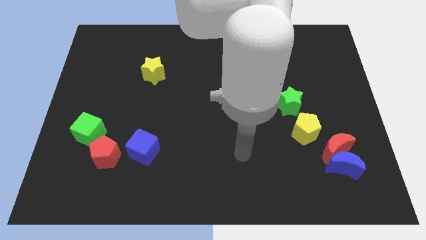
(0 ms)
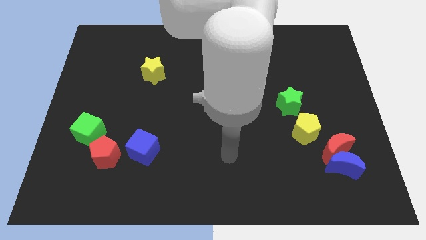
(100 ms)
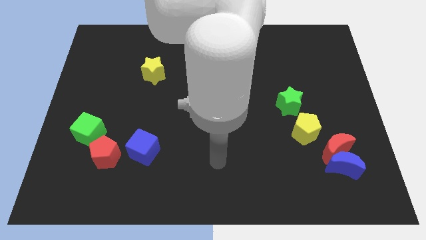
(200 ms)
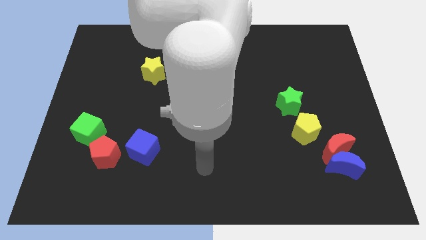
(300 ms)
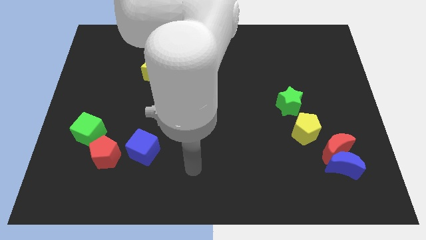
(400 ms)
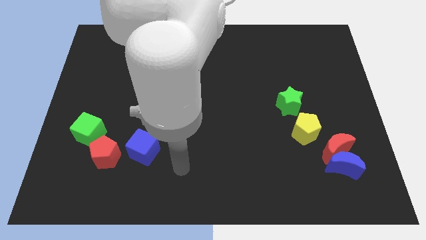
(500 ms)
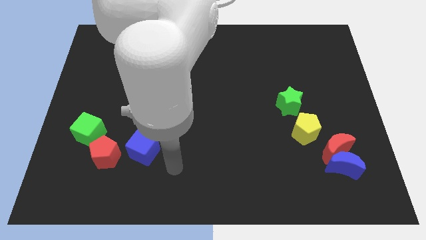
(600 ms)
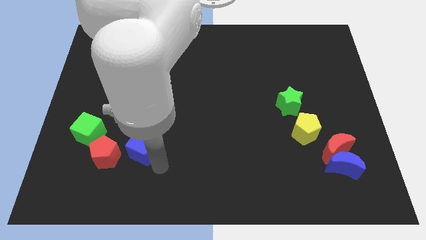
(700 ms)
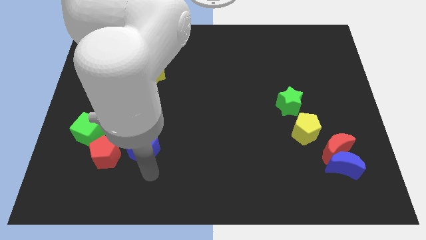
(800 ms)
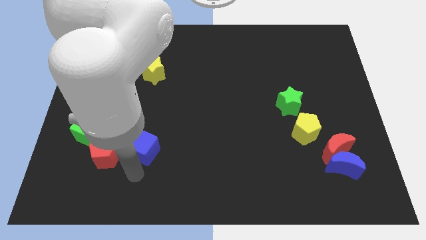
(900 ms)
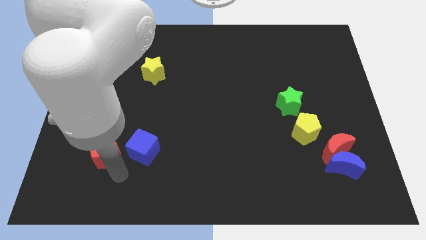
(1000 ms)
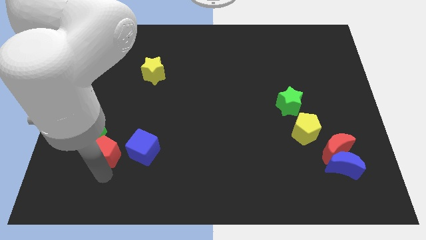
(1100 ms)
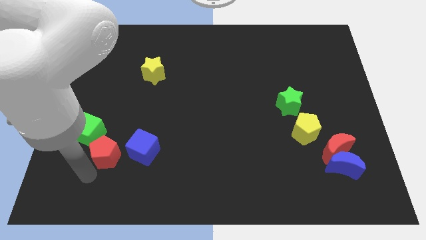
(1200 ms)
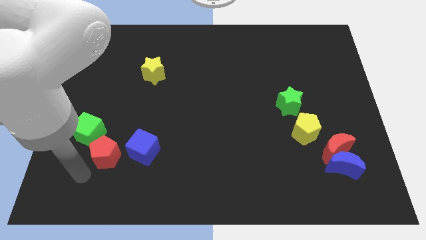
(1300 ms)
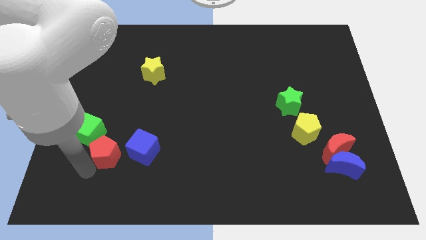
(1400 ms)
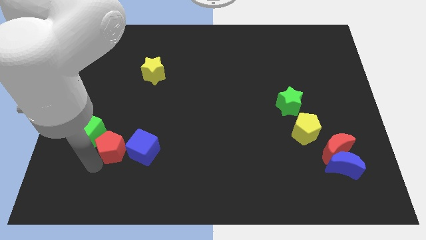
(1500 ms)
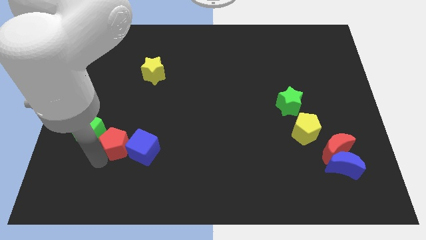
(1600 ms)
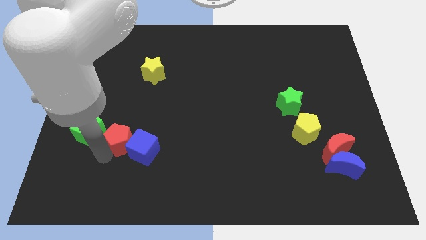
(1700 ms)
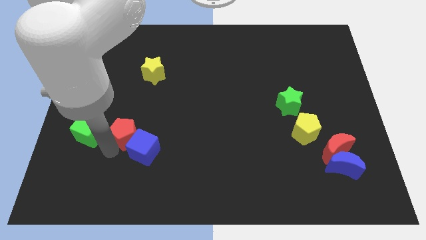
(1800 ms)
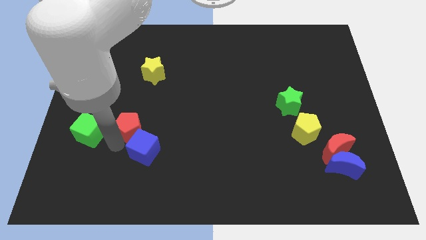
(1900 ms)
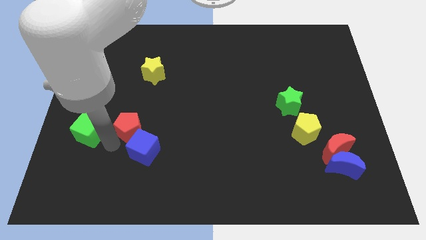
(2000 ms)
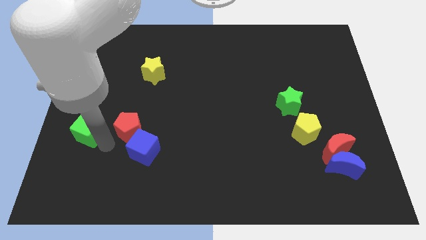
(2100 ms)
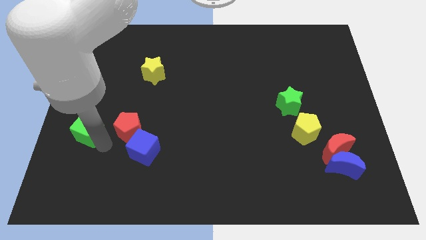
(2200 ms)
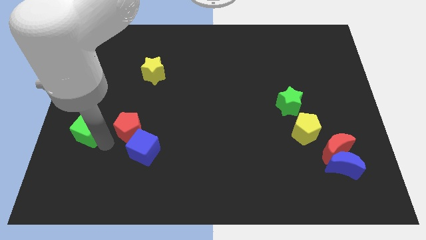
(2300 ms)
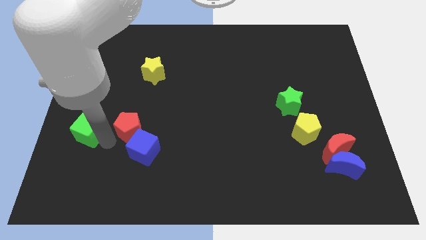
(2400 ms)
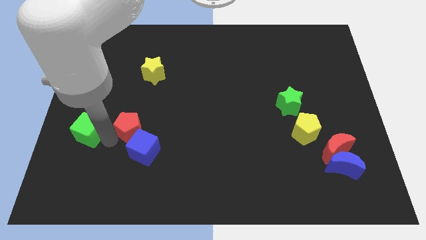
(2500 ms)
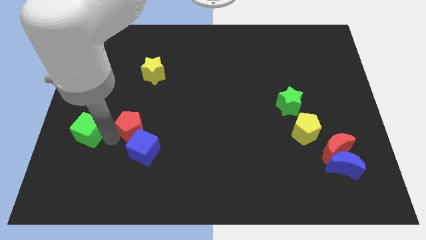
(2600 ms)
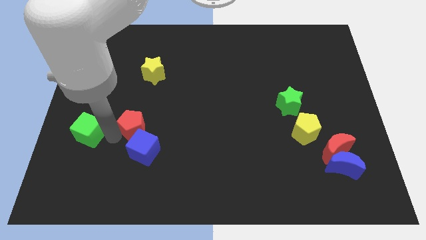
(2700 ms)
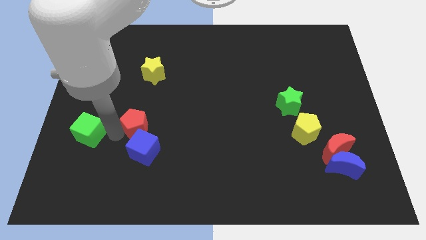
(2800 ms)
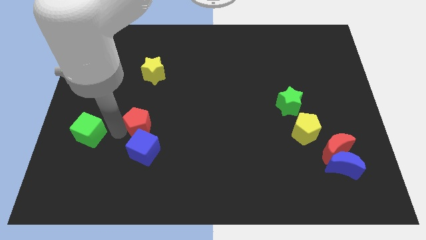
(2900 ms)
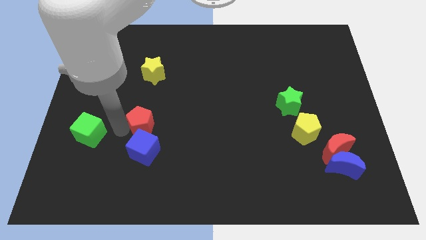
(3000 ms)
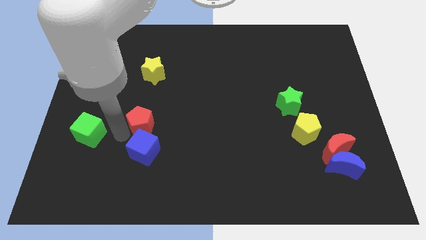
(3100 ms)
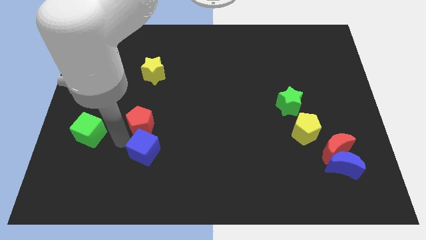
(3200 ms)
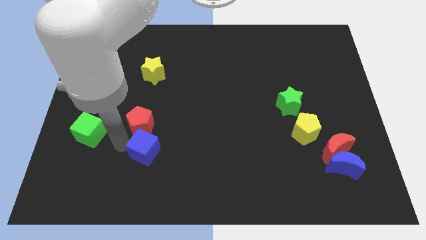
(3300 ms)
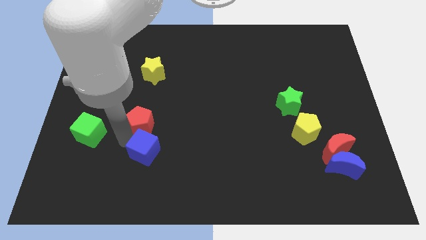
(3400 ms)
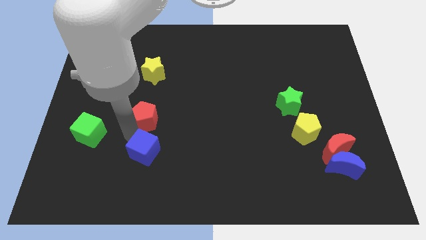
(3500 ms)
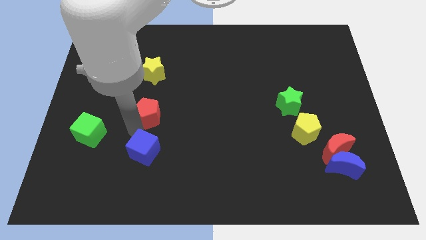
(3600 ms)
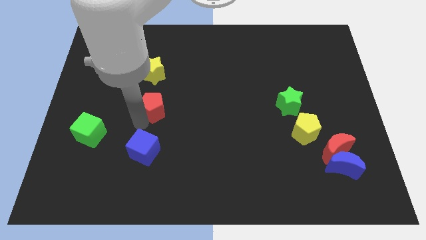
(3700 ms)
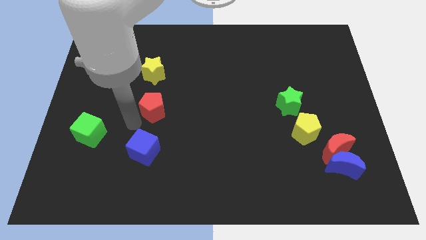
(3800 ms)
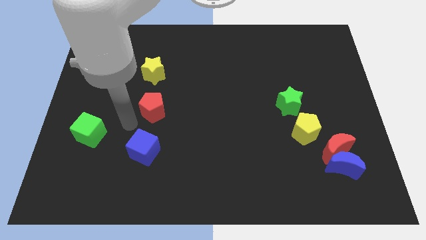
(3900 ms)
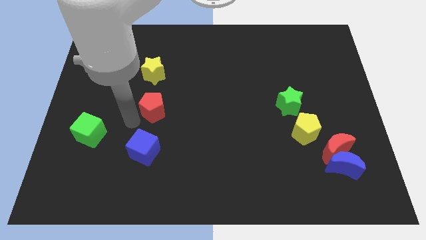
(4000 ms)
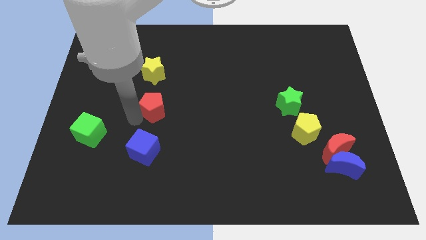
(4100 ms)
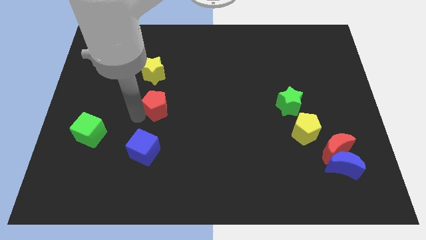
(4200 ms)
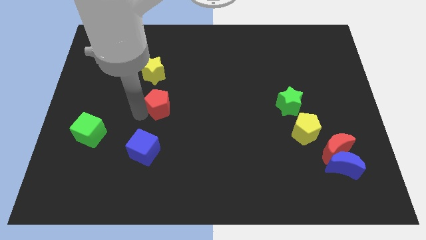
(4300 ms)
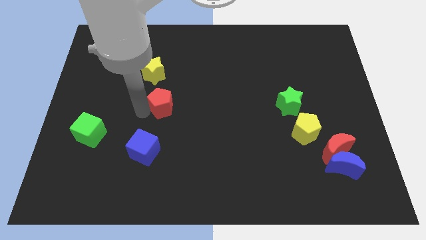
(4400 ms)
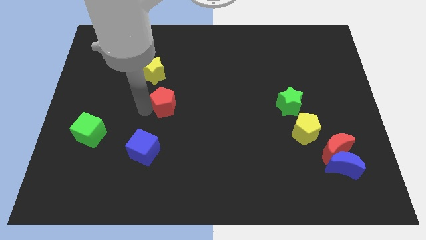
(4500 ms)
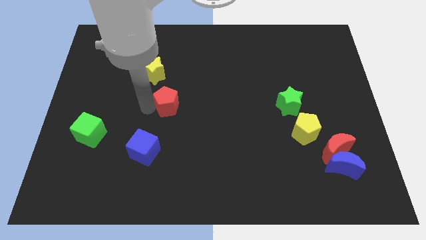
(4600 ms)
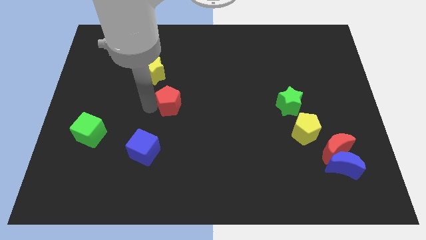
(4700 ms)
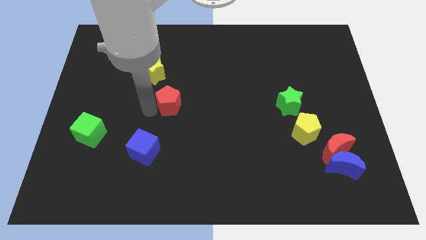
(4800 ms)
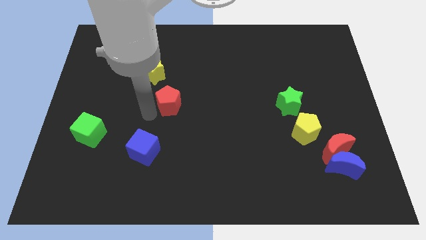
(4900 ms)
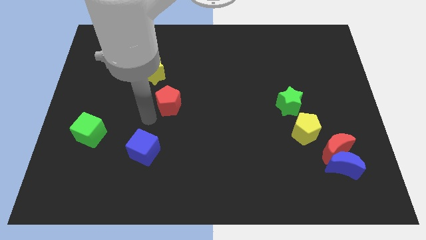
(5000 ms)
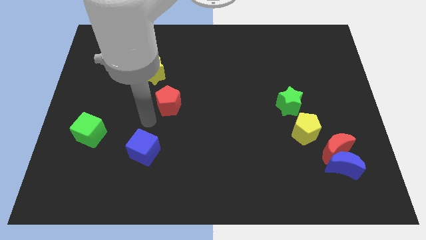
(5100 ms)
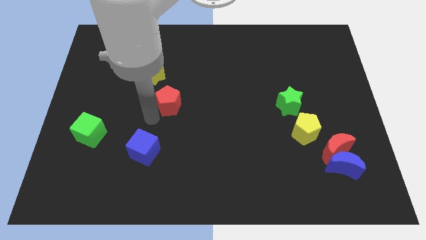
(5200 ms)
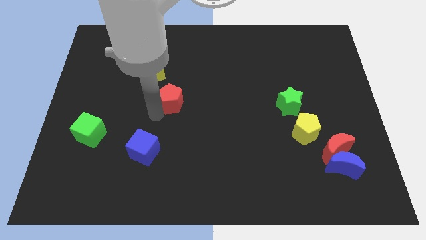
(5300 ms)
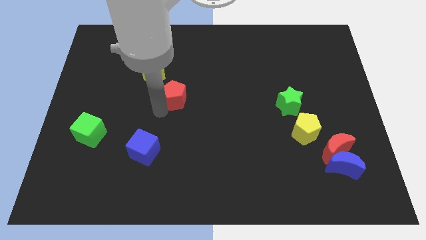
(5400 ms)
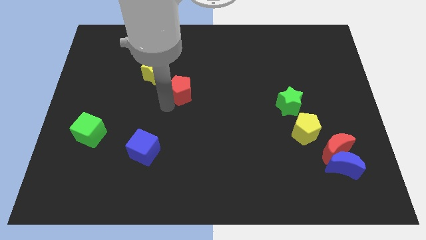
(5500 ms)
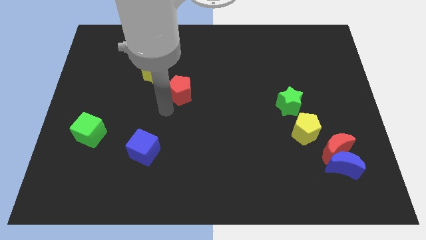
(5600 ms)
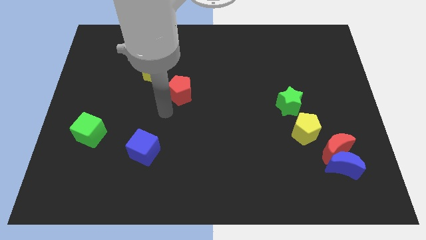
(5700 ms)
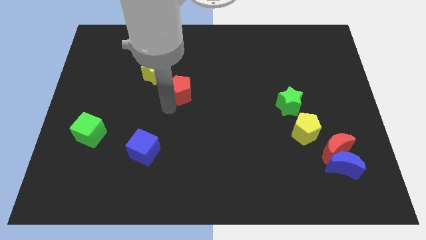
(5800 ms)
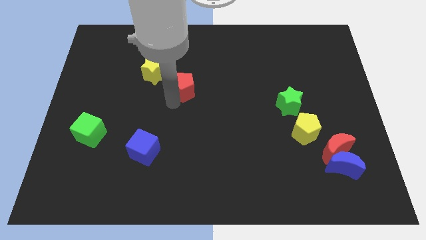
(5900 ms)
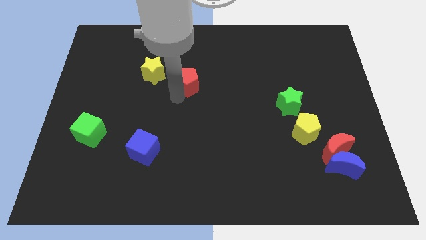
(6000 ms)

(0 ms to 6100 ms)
slide the red pentagon to the right of the yellow star

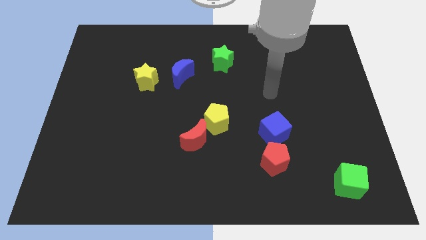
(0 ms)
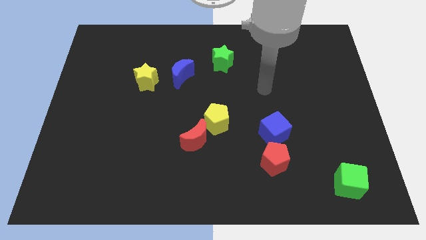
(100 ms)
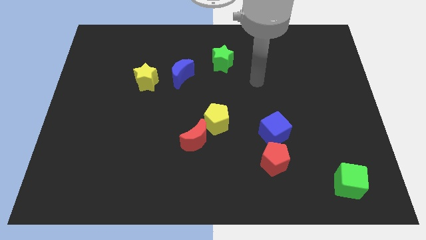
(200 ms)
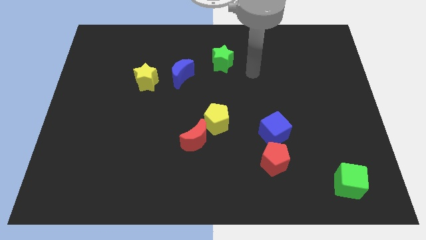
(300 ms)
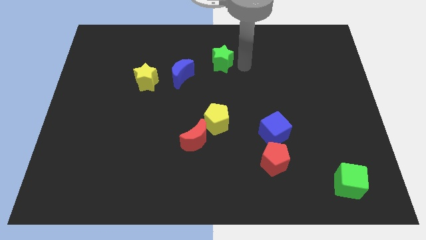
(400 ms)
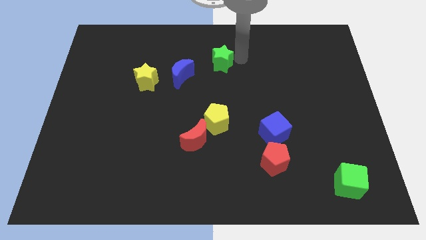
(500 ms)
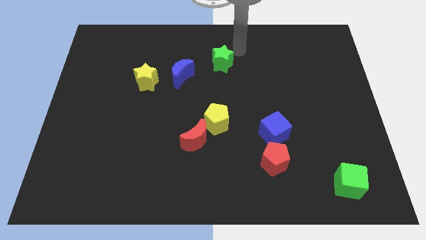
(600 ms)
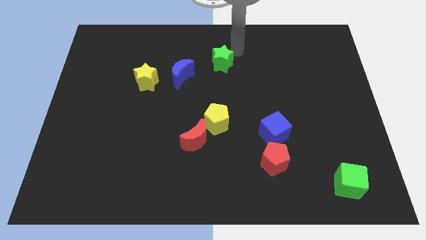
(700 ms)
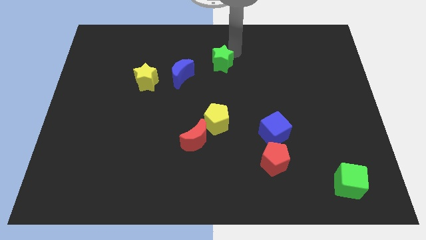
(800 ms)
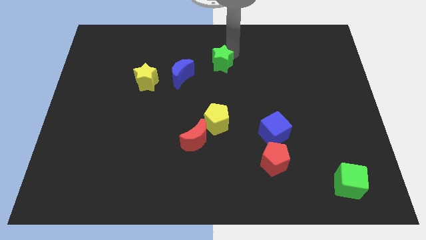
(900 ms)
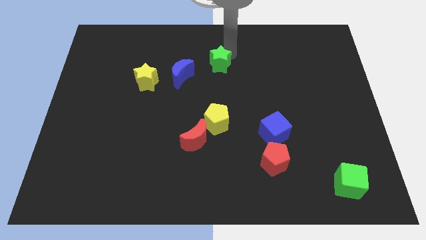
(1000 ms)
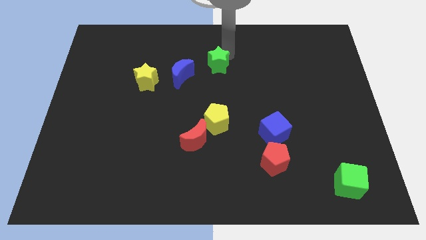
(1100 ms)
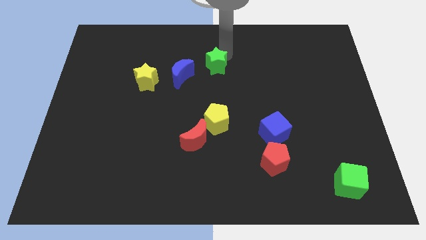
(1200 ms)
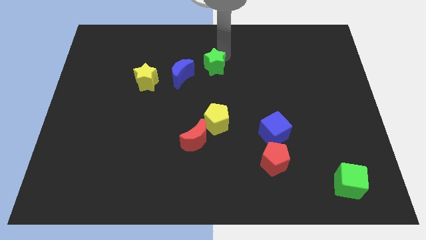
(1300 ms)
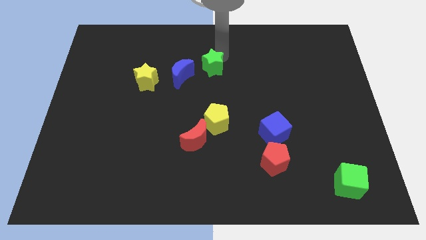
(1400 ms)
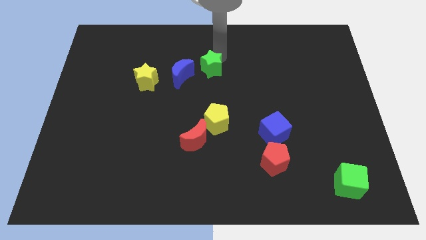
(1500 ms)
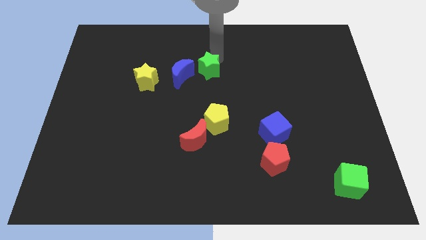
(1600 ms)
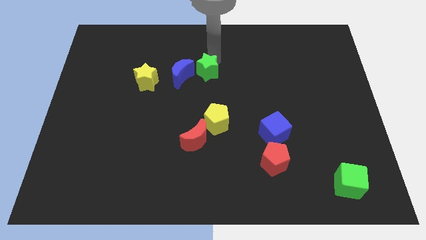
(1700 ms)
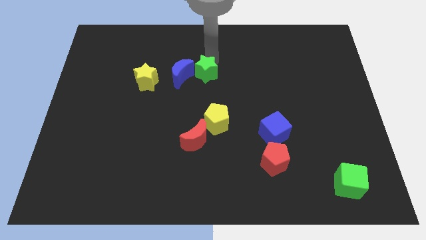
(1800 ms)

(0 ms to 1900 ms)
slide the green star just right of the yellow star
